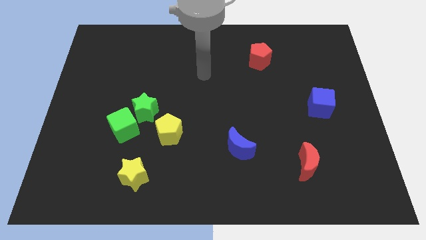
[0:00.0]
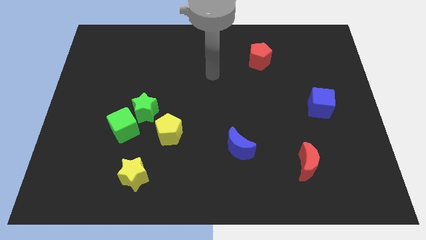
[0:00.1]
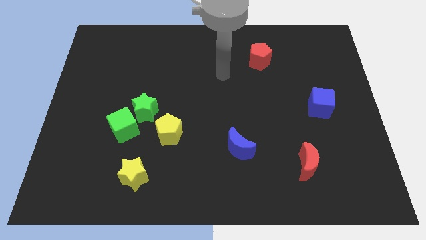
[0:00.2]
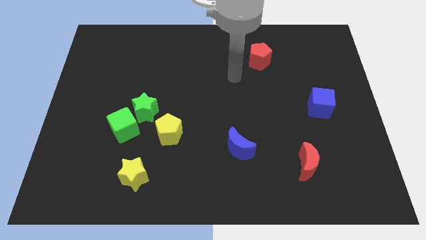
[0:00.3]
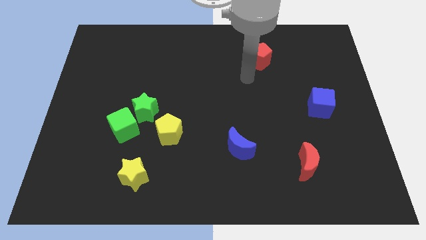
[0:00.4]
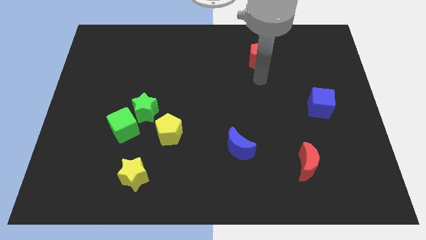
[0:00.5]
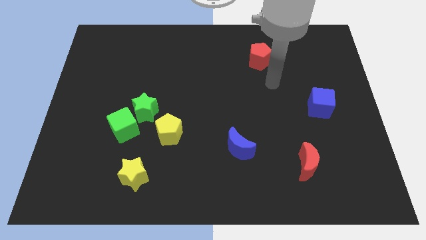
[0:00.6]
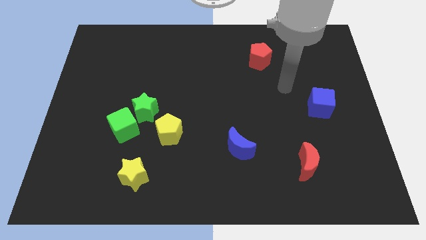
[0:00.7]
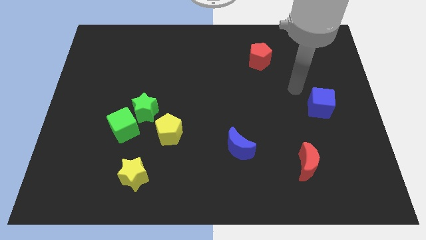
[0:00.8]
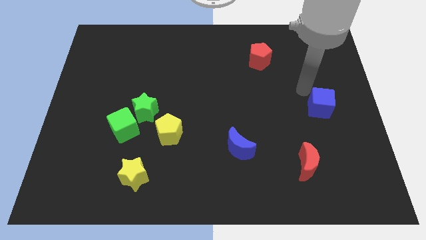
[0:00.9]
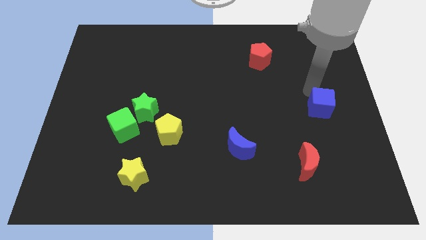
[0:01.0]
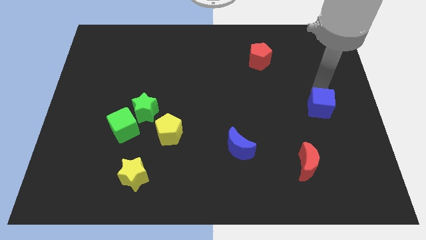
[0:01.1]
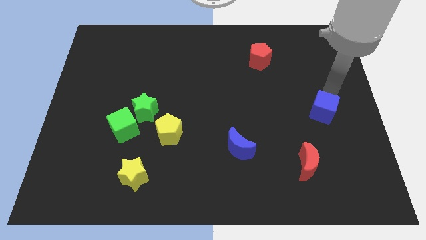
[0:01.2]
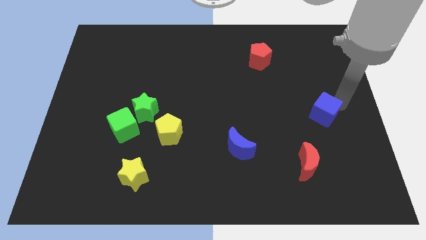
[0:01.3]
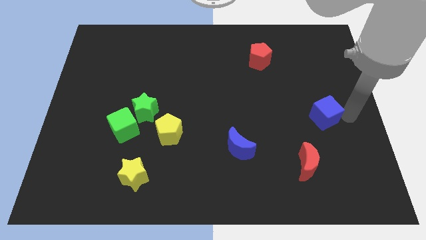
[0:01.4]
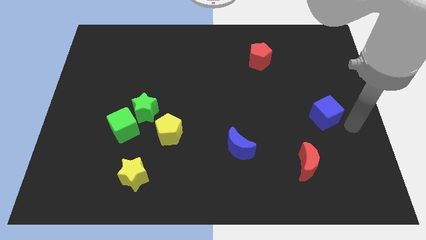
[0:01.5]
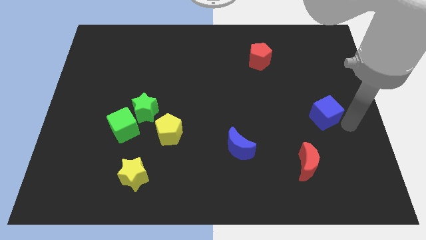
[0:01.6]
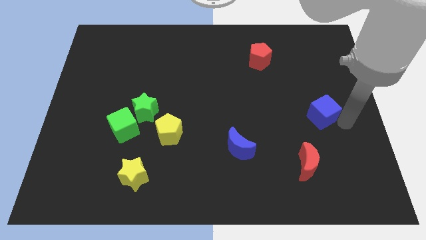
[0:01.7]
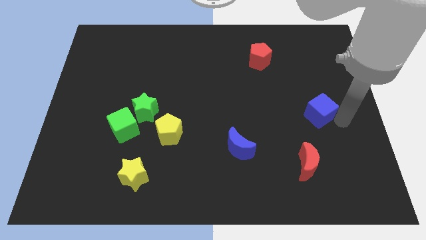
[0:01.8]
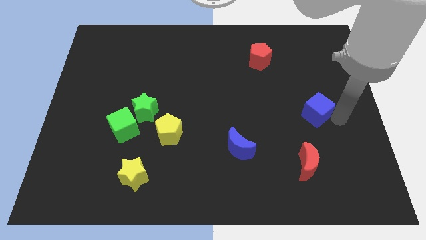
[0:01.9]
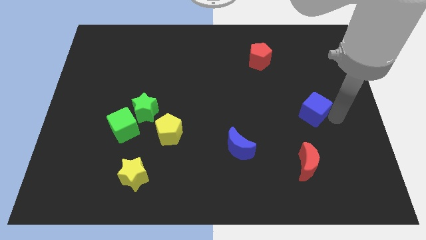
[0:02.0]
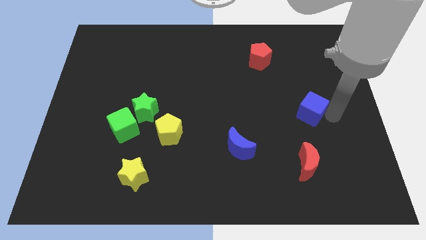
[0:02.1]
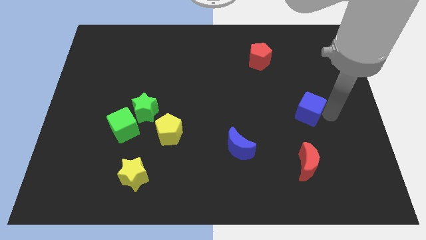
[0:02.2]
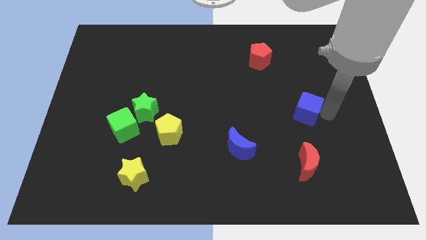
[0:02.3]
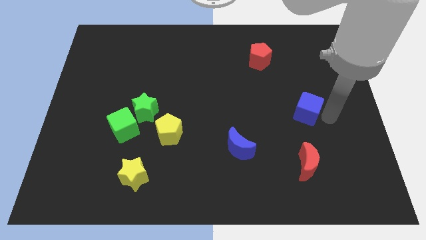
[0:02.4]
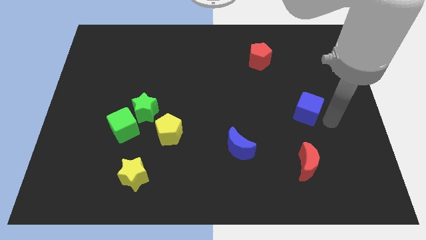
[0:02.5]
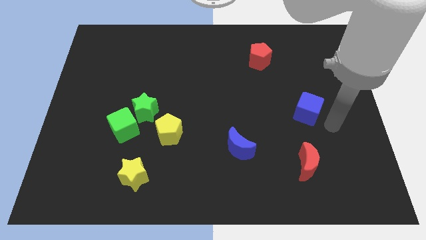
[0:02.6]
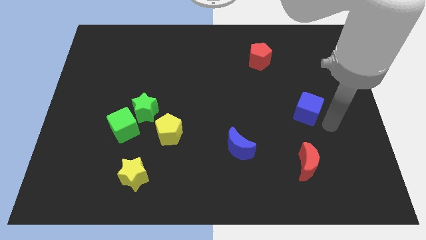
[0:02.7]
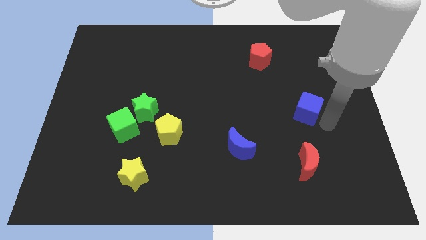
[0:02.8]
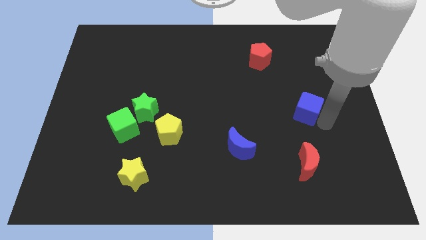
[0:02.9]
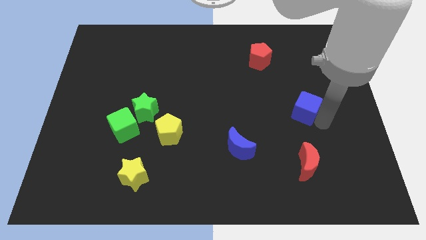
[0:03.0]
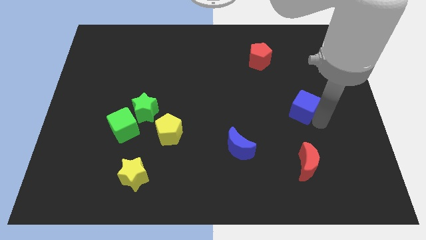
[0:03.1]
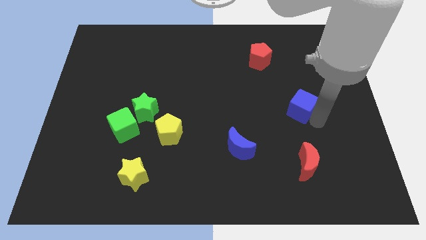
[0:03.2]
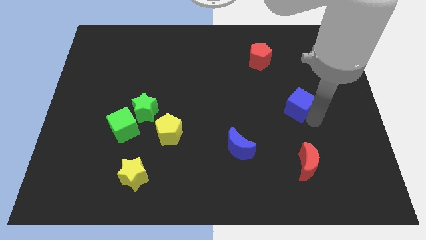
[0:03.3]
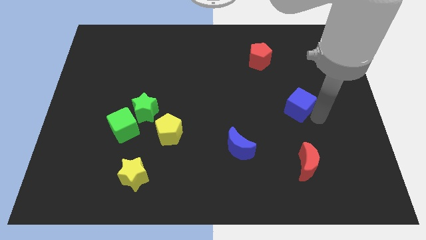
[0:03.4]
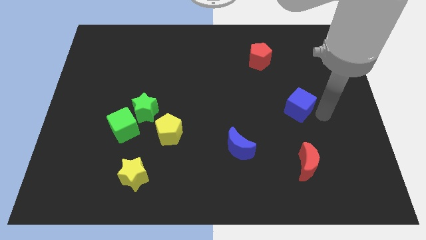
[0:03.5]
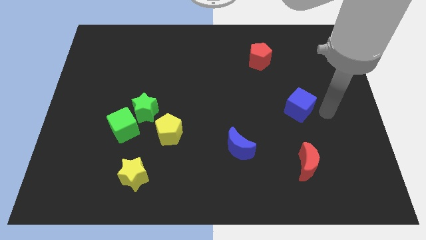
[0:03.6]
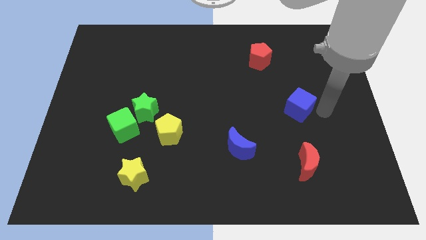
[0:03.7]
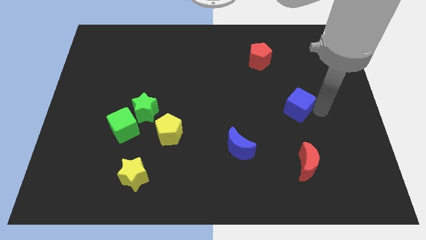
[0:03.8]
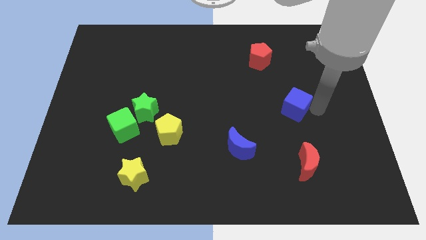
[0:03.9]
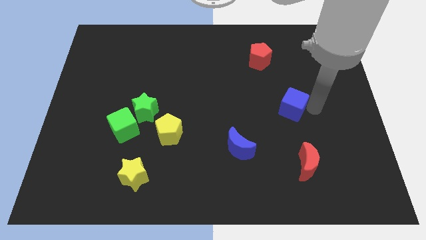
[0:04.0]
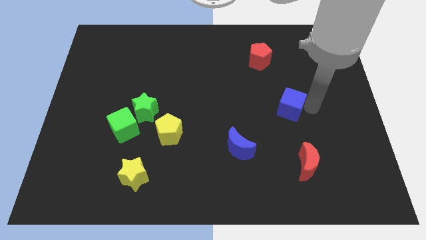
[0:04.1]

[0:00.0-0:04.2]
push the blue cube a little bit left

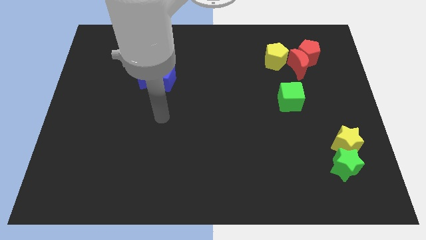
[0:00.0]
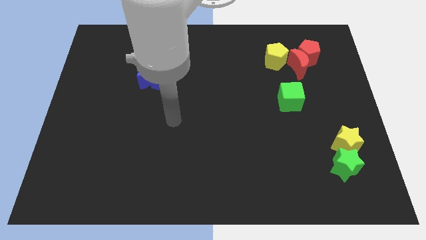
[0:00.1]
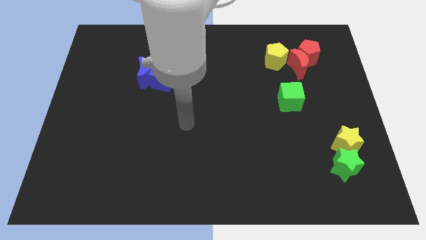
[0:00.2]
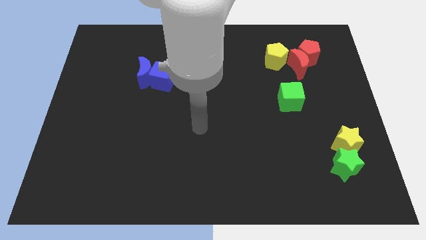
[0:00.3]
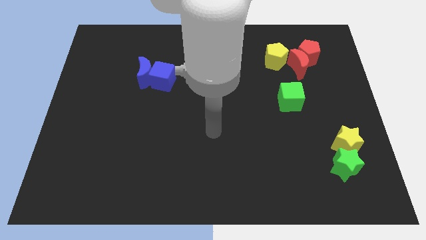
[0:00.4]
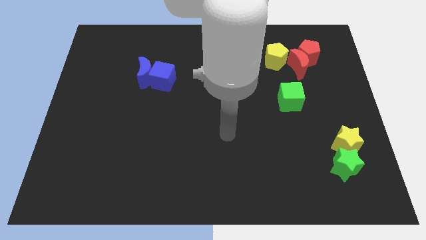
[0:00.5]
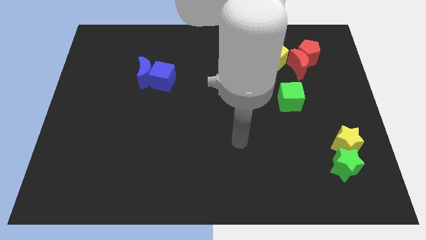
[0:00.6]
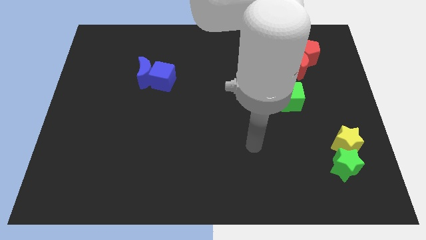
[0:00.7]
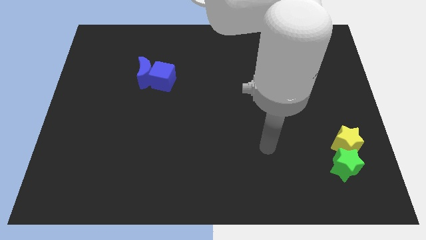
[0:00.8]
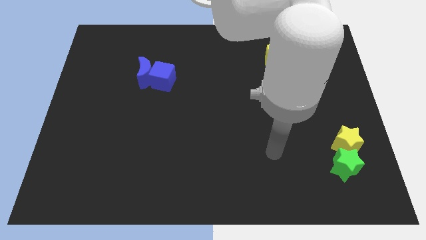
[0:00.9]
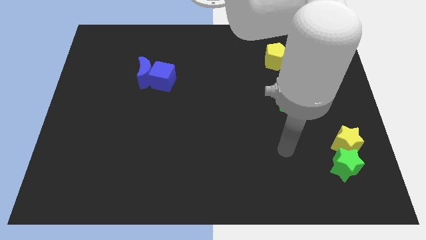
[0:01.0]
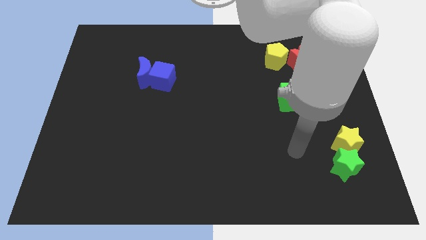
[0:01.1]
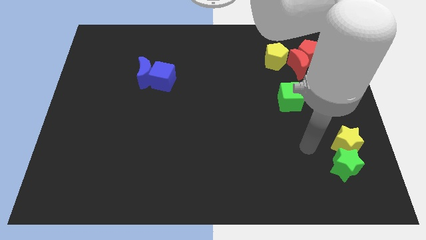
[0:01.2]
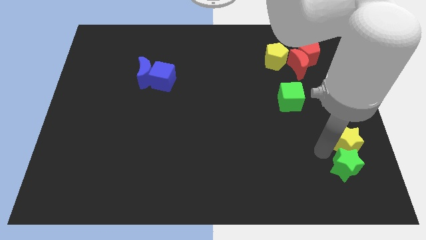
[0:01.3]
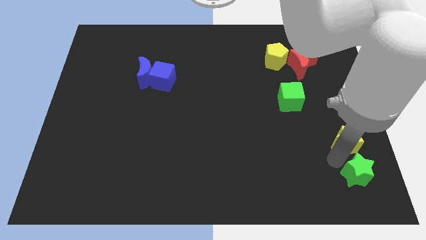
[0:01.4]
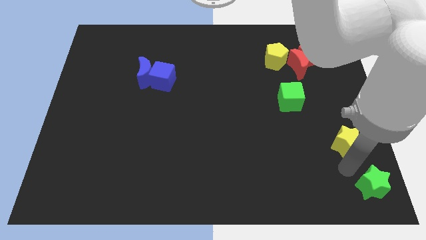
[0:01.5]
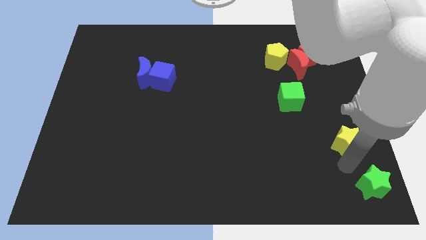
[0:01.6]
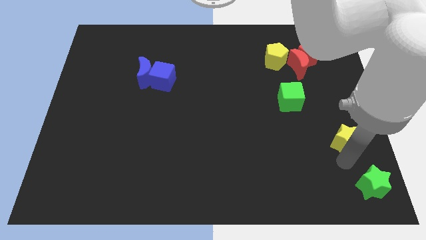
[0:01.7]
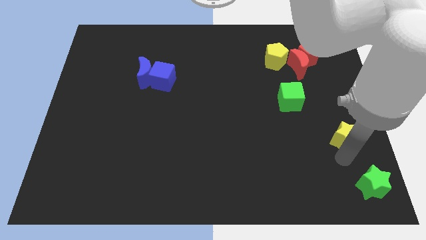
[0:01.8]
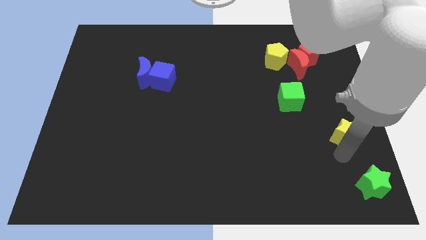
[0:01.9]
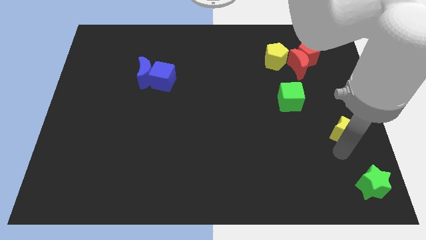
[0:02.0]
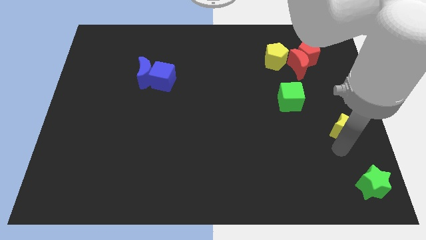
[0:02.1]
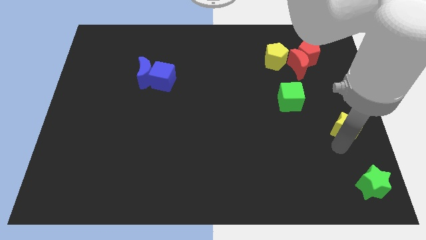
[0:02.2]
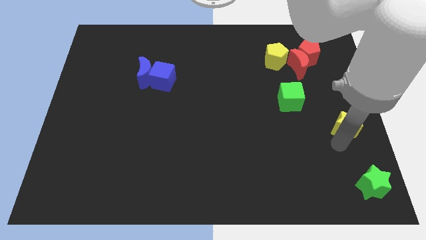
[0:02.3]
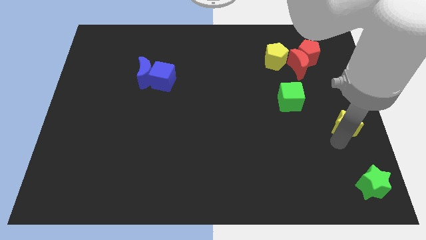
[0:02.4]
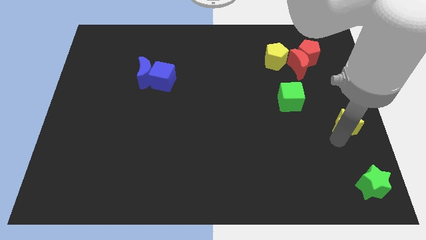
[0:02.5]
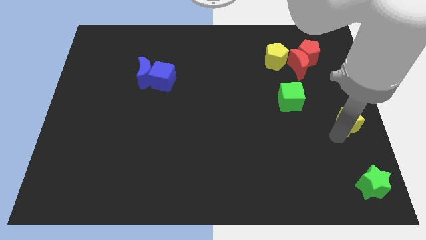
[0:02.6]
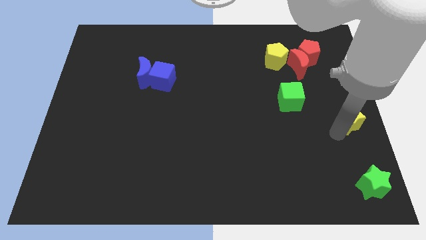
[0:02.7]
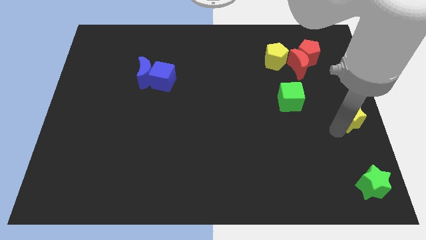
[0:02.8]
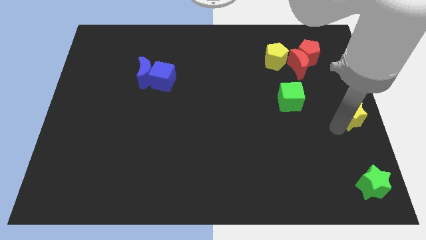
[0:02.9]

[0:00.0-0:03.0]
move the yellow star up a little bit

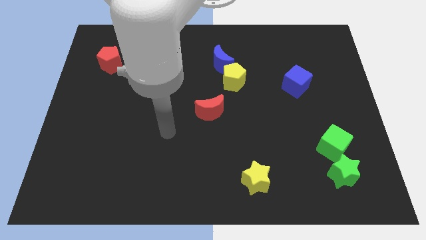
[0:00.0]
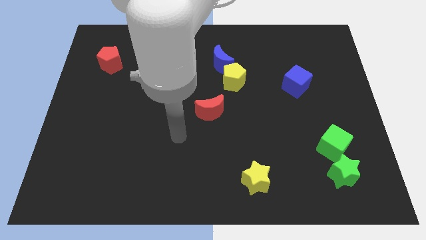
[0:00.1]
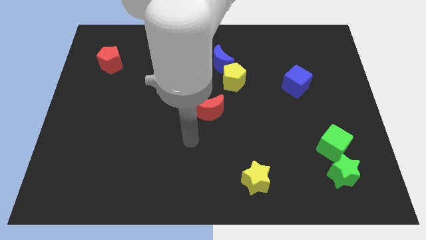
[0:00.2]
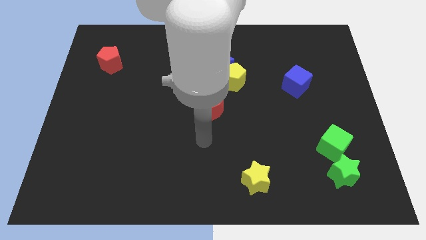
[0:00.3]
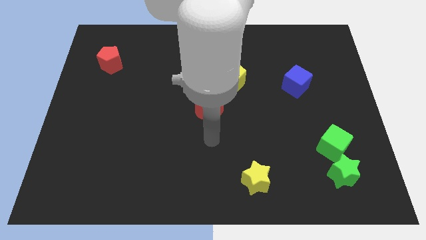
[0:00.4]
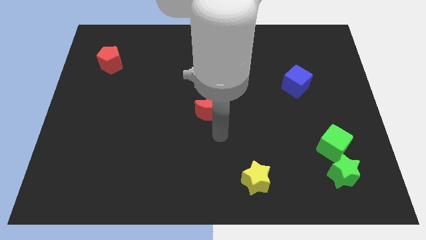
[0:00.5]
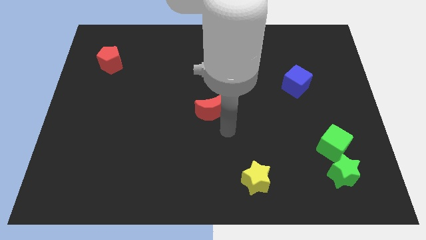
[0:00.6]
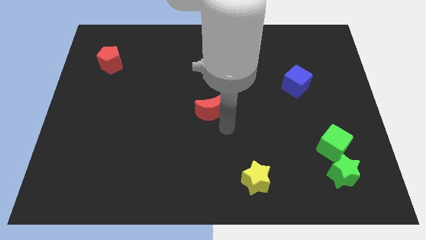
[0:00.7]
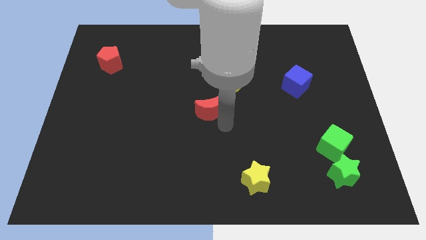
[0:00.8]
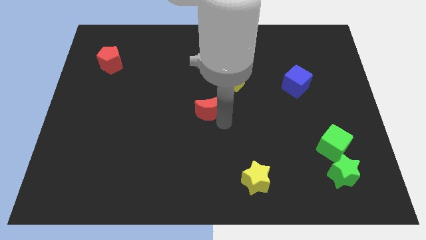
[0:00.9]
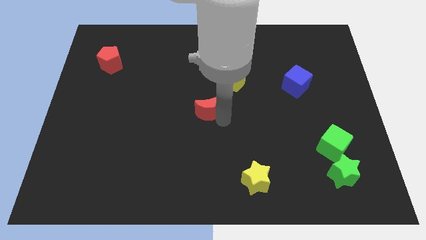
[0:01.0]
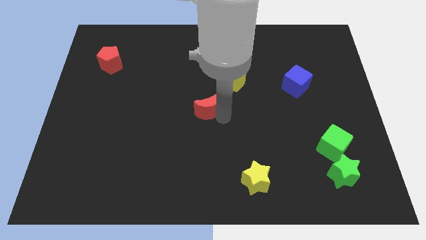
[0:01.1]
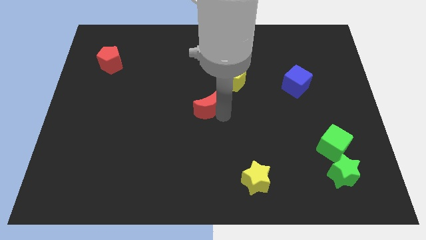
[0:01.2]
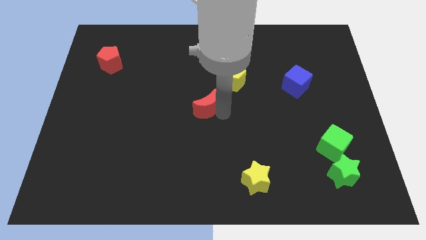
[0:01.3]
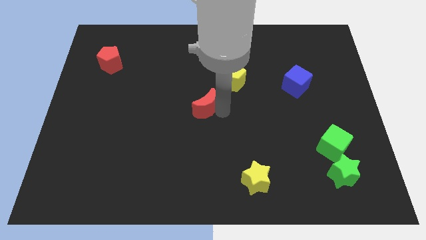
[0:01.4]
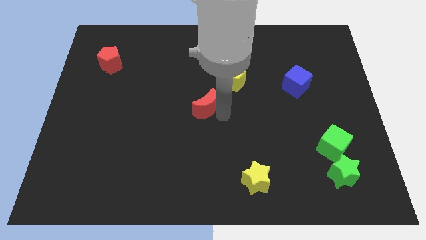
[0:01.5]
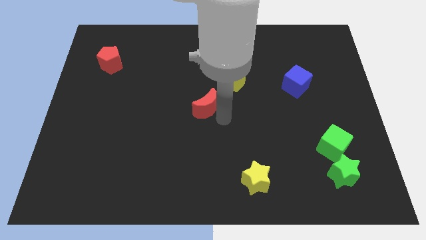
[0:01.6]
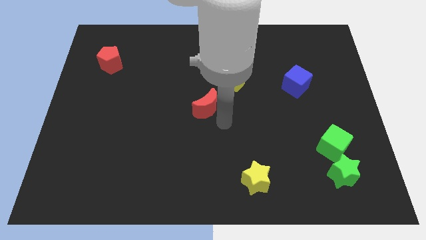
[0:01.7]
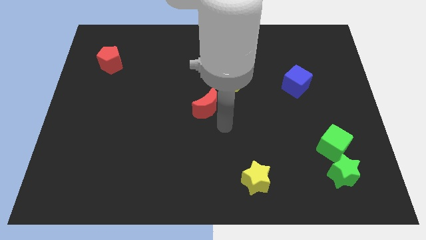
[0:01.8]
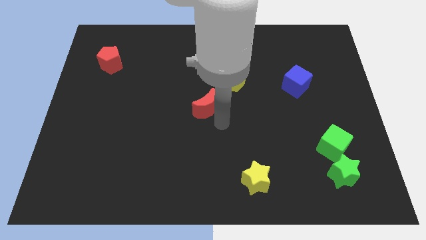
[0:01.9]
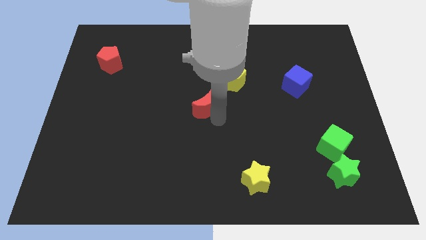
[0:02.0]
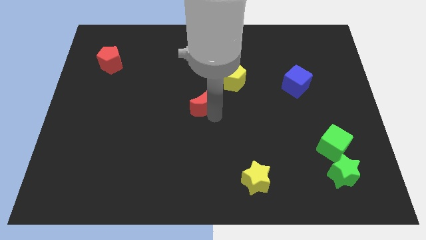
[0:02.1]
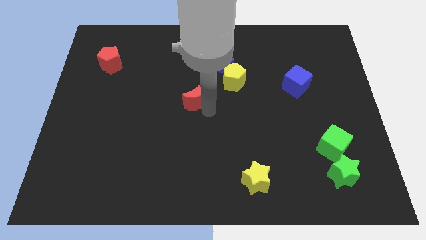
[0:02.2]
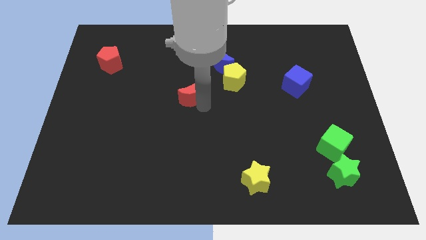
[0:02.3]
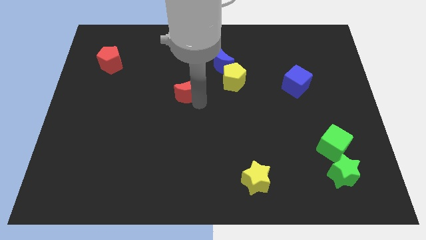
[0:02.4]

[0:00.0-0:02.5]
slide the red moon a little upwards and then to the left
